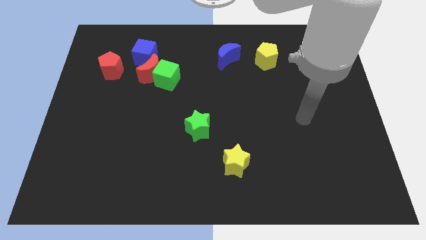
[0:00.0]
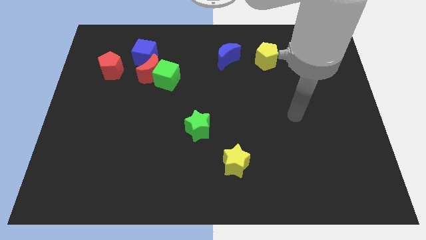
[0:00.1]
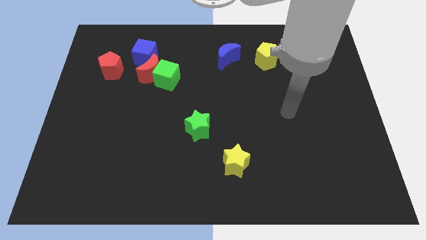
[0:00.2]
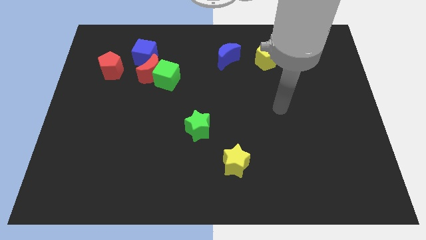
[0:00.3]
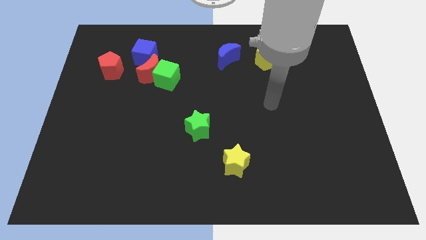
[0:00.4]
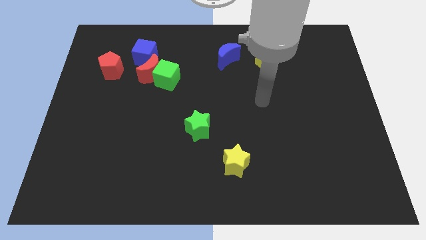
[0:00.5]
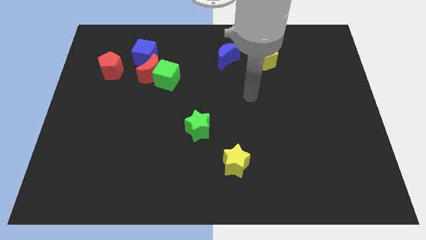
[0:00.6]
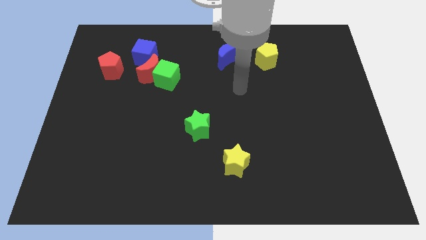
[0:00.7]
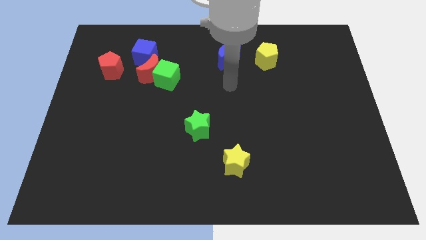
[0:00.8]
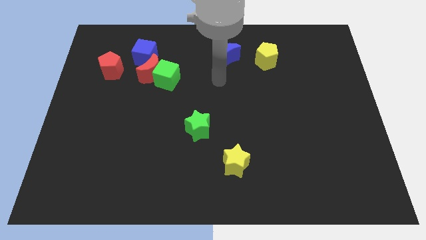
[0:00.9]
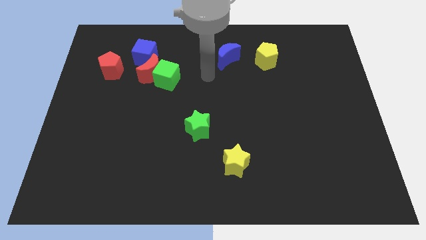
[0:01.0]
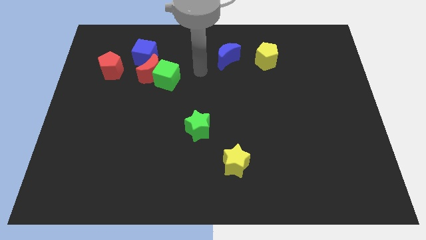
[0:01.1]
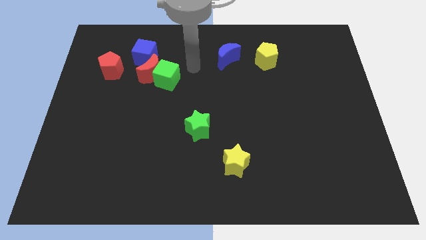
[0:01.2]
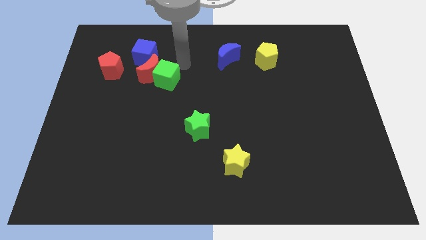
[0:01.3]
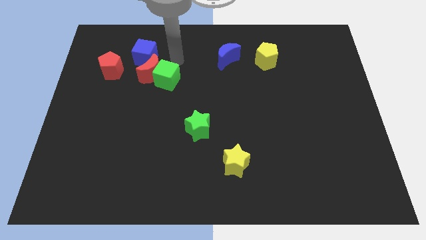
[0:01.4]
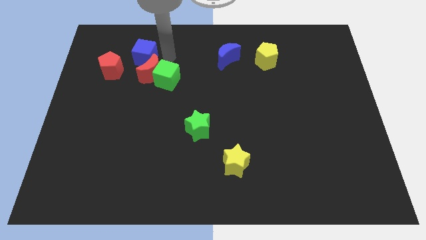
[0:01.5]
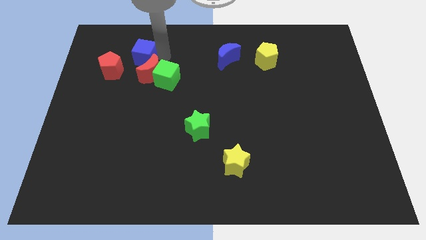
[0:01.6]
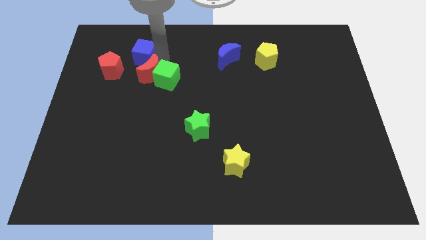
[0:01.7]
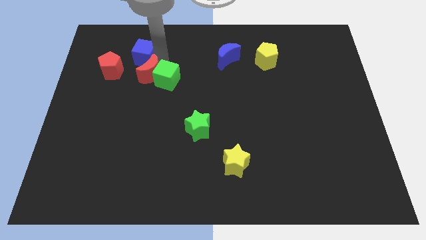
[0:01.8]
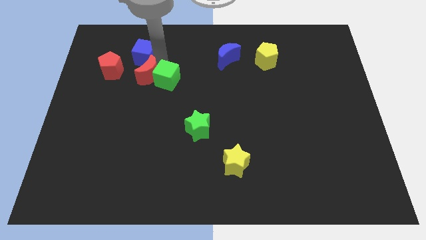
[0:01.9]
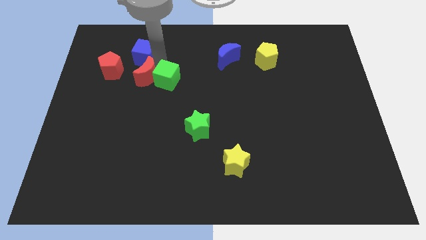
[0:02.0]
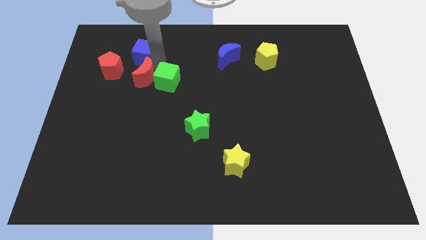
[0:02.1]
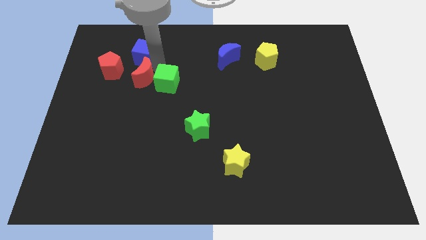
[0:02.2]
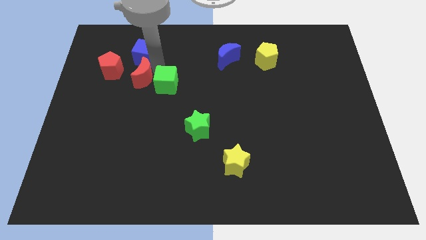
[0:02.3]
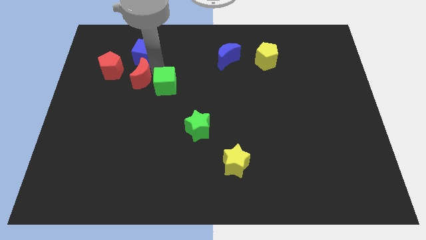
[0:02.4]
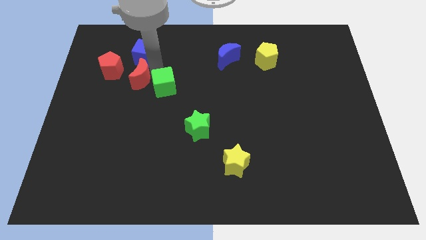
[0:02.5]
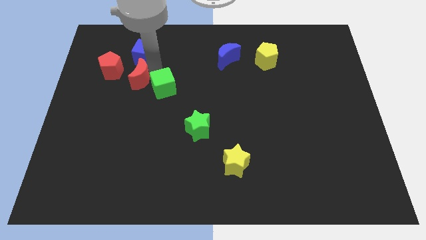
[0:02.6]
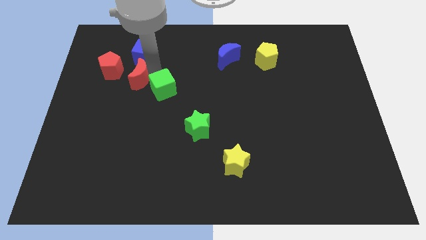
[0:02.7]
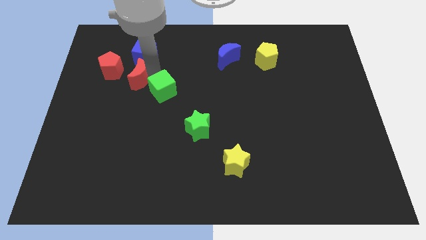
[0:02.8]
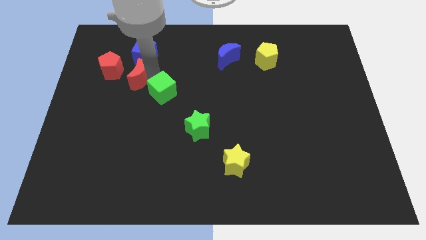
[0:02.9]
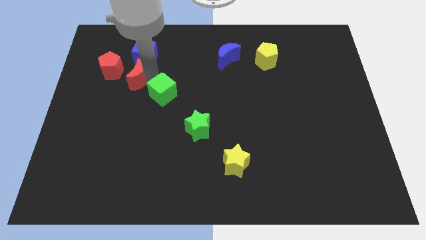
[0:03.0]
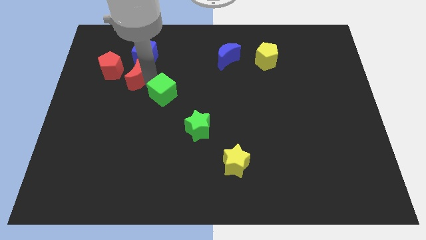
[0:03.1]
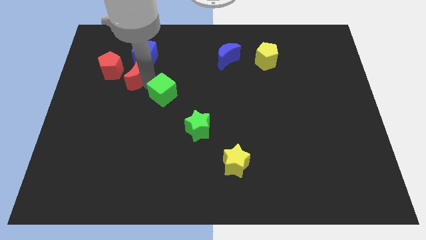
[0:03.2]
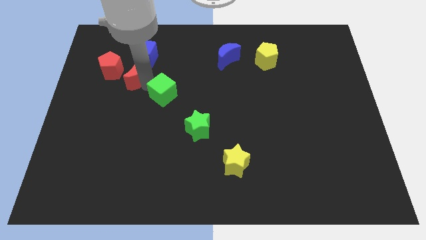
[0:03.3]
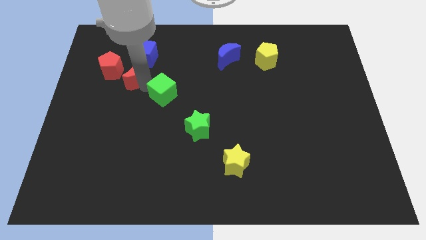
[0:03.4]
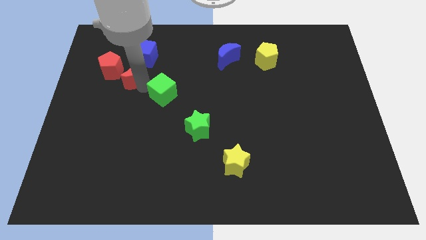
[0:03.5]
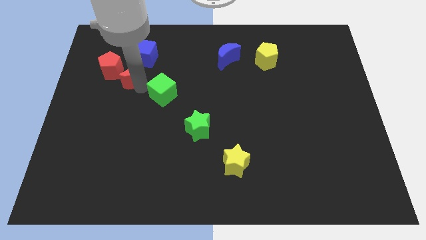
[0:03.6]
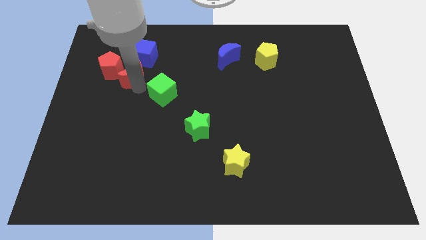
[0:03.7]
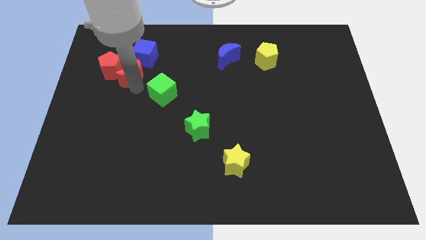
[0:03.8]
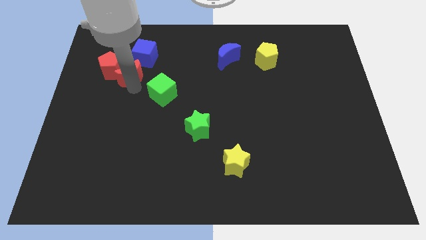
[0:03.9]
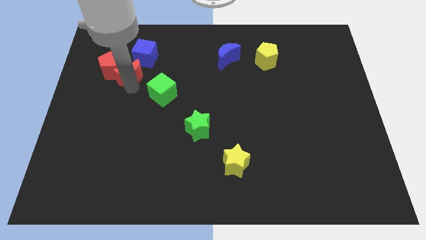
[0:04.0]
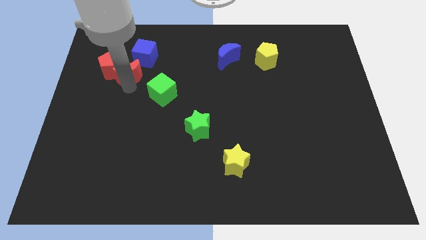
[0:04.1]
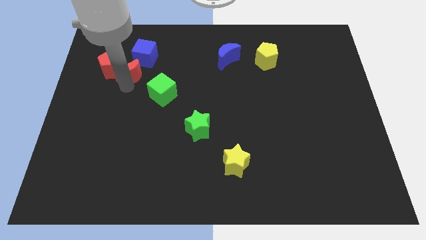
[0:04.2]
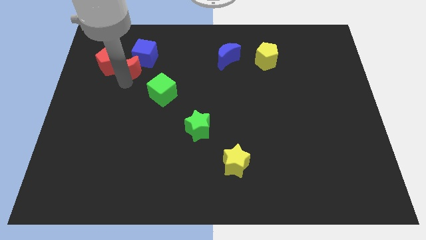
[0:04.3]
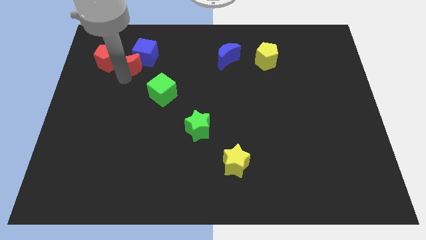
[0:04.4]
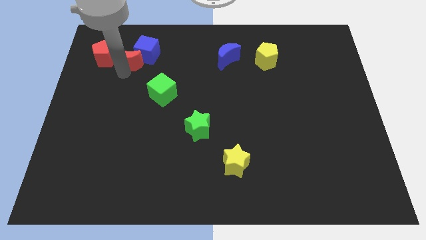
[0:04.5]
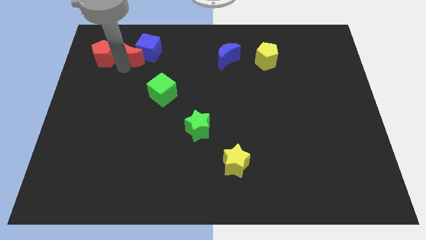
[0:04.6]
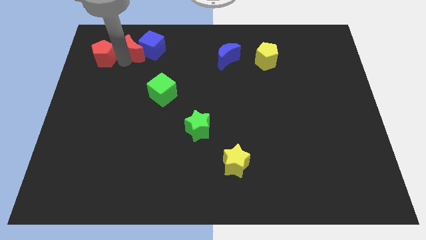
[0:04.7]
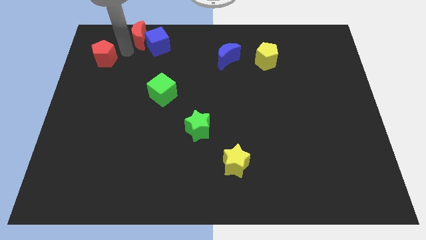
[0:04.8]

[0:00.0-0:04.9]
separate the red moon from the green cube and blue cube

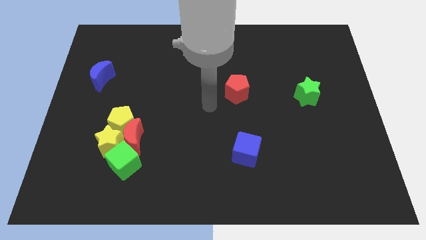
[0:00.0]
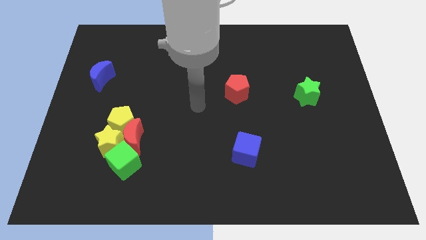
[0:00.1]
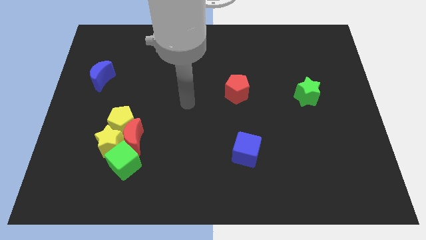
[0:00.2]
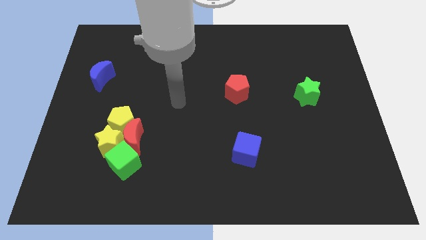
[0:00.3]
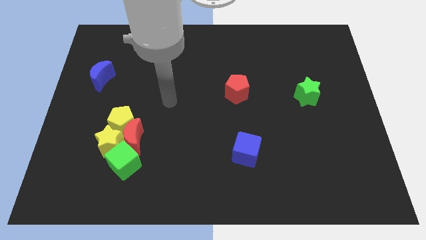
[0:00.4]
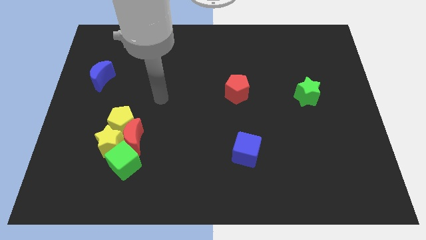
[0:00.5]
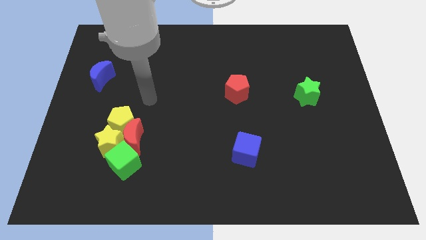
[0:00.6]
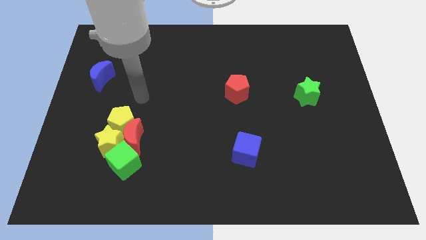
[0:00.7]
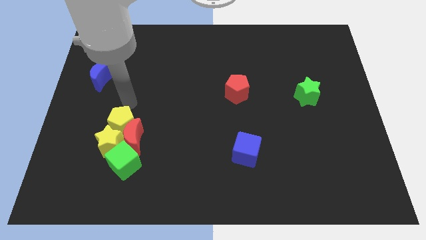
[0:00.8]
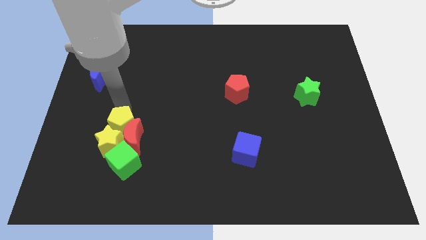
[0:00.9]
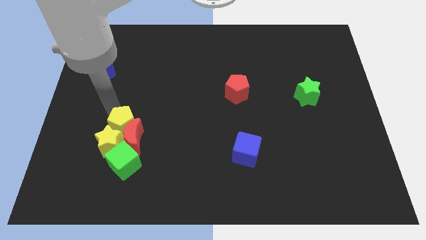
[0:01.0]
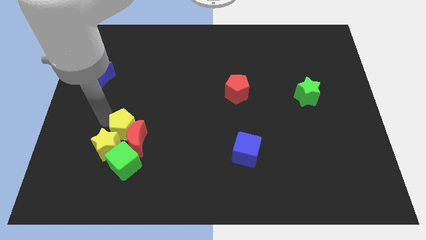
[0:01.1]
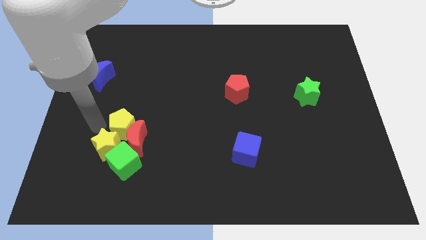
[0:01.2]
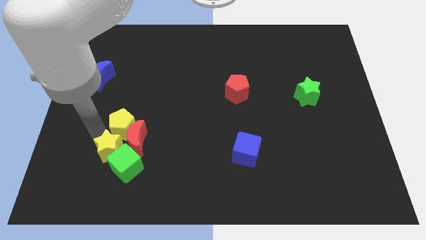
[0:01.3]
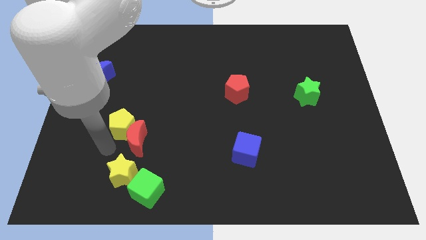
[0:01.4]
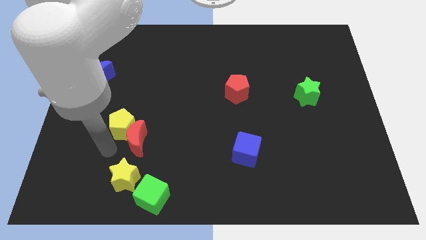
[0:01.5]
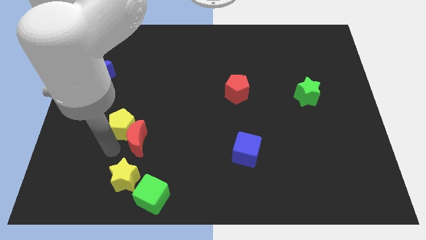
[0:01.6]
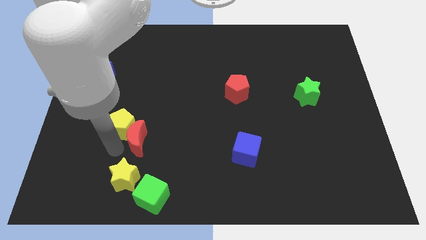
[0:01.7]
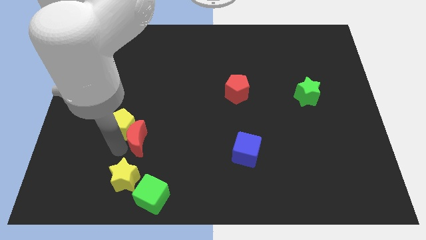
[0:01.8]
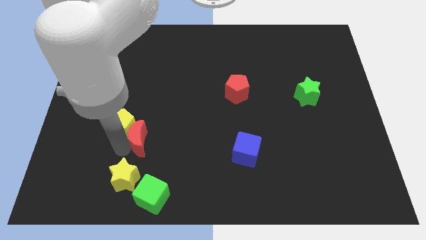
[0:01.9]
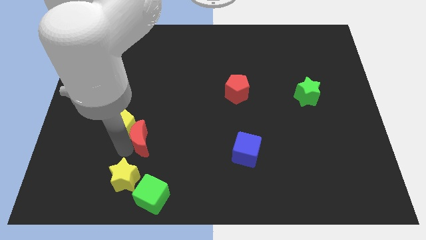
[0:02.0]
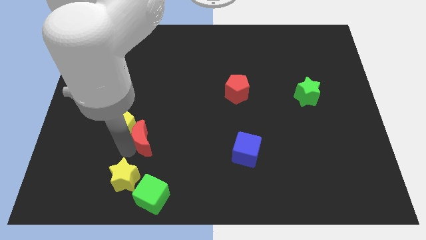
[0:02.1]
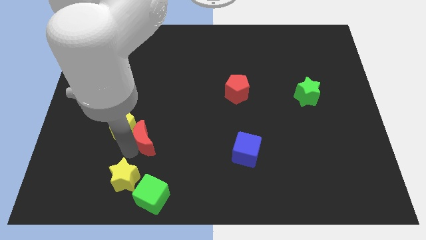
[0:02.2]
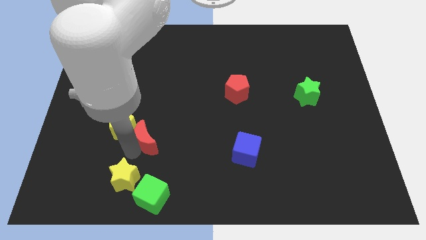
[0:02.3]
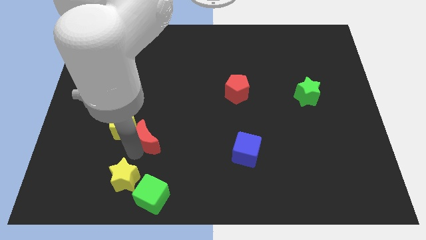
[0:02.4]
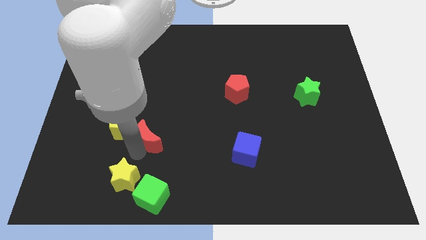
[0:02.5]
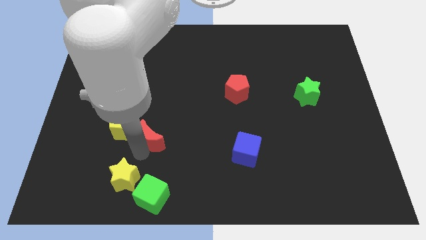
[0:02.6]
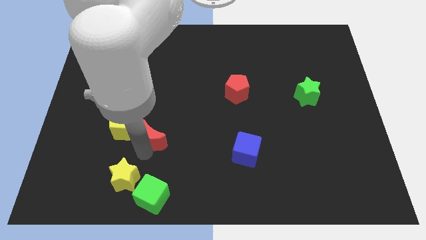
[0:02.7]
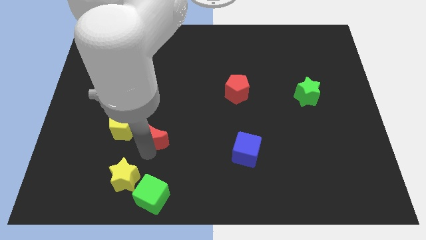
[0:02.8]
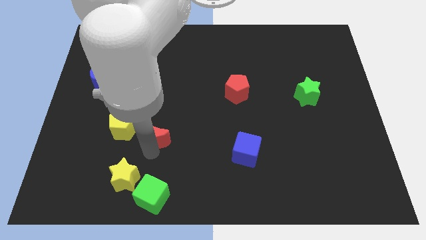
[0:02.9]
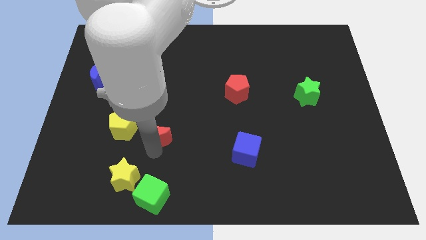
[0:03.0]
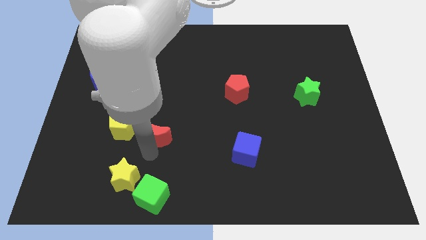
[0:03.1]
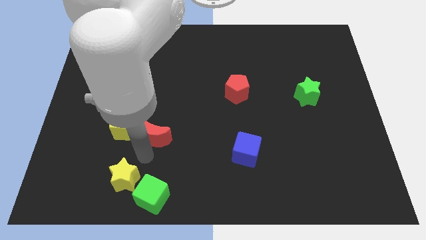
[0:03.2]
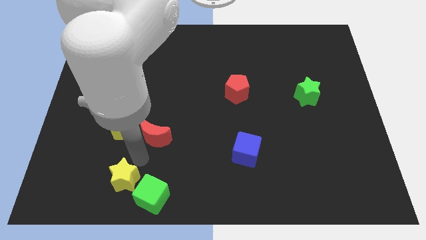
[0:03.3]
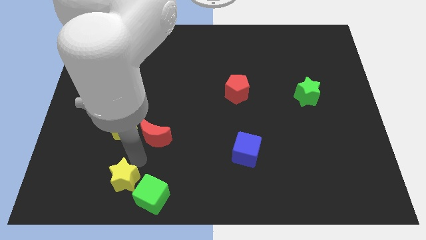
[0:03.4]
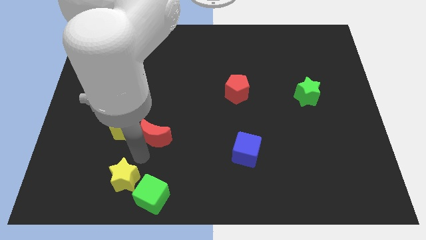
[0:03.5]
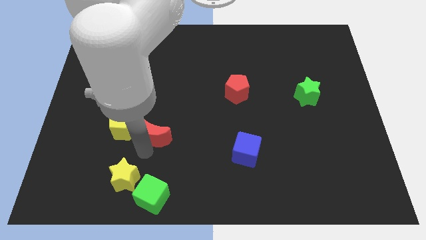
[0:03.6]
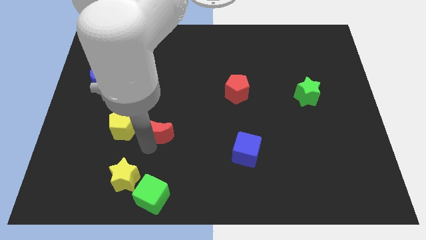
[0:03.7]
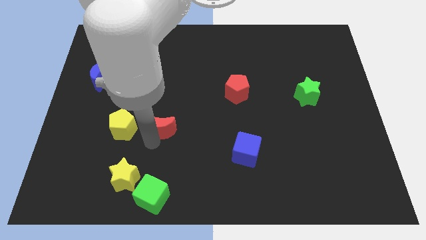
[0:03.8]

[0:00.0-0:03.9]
separate the red moon from the group

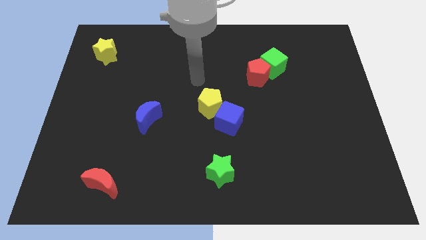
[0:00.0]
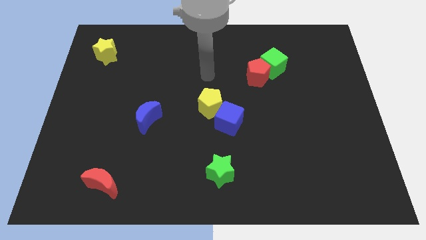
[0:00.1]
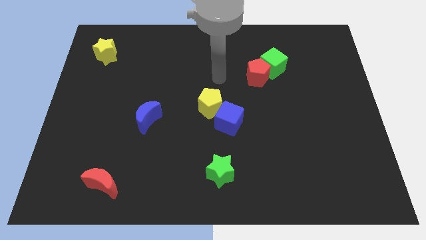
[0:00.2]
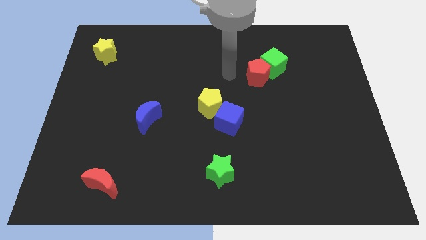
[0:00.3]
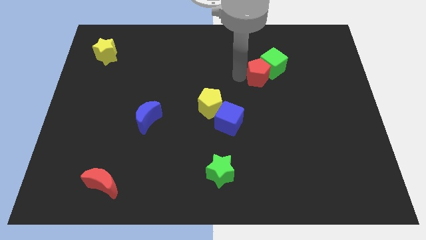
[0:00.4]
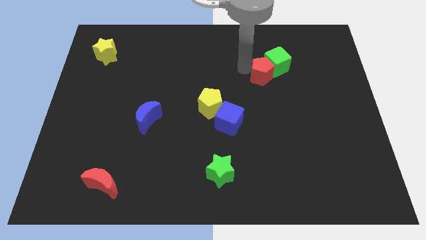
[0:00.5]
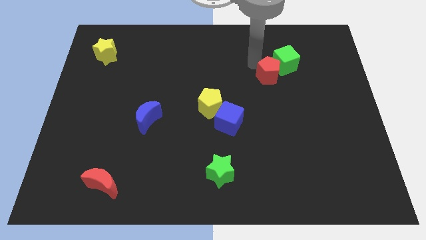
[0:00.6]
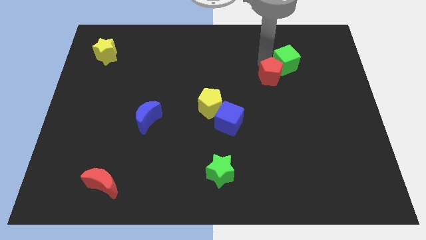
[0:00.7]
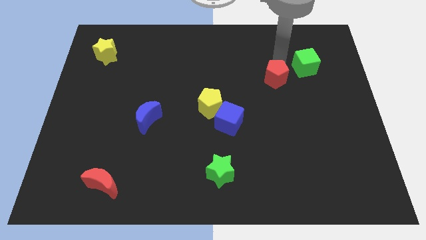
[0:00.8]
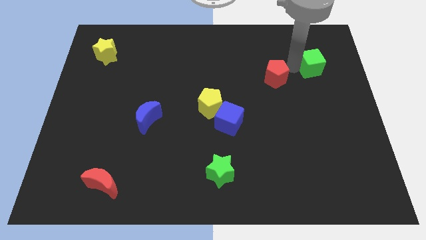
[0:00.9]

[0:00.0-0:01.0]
separate the red pentagon from the green cube
